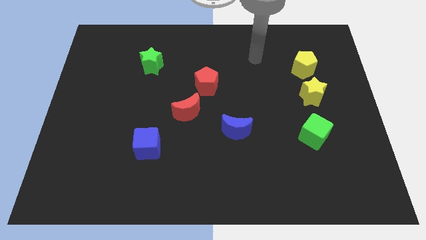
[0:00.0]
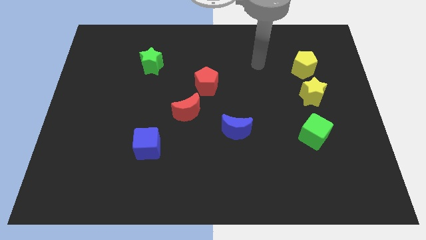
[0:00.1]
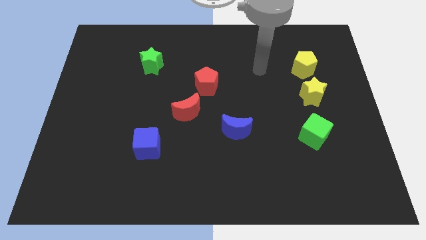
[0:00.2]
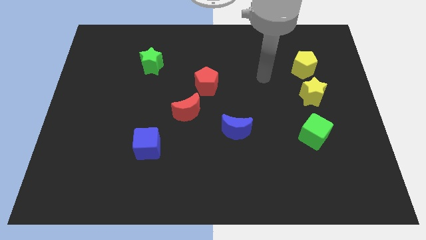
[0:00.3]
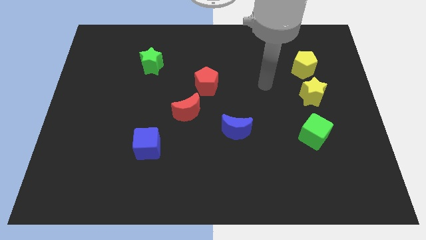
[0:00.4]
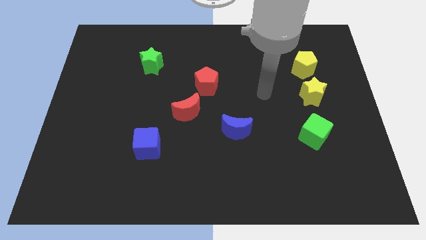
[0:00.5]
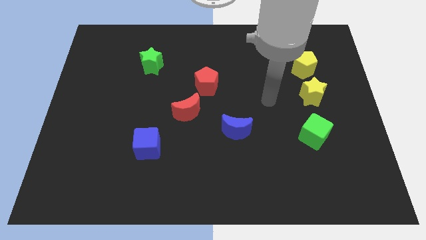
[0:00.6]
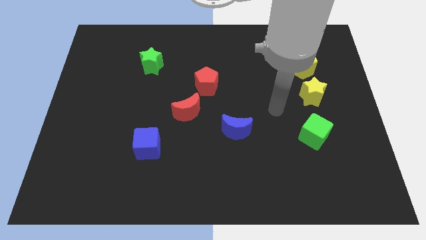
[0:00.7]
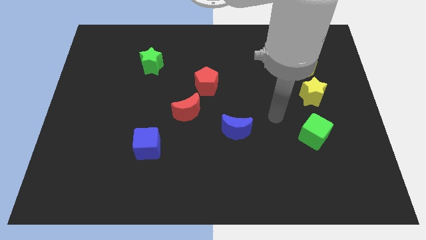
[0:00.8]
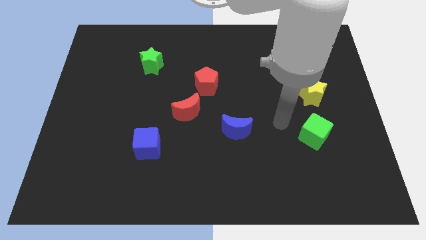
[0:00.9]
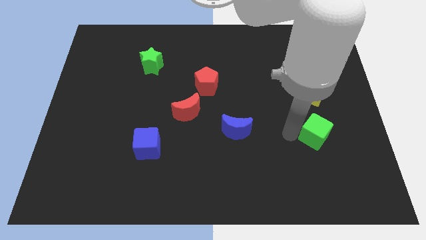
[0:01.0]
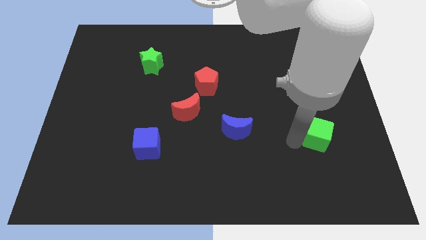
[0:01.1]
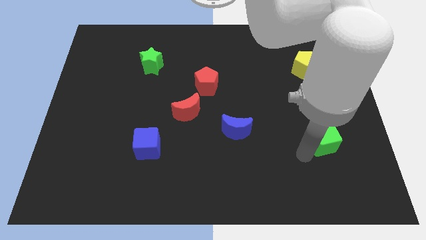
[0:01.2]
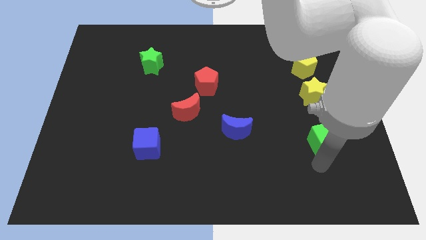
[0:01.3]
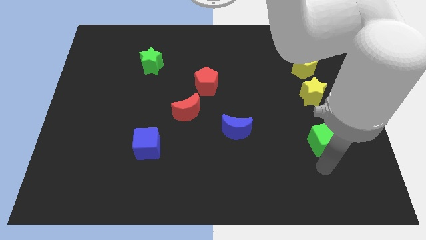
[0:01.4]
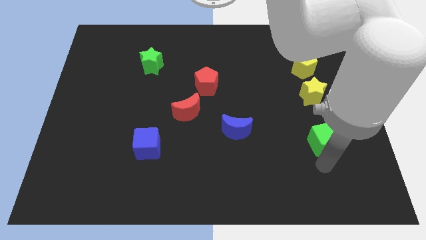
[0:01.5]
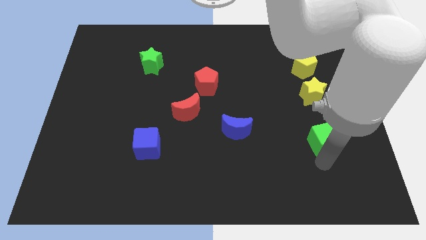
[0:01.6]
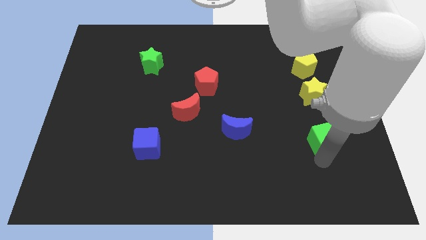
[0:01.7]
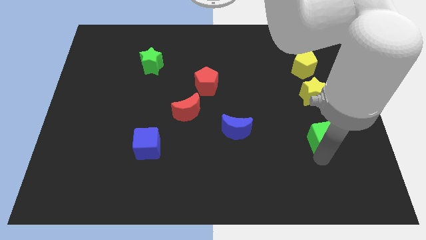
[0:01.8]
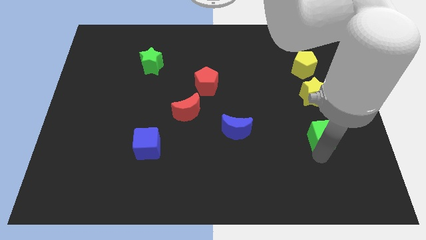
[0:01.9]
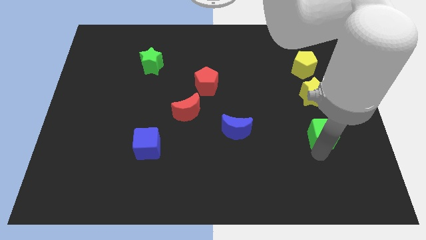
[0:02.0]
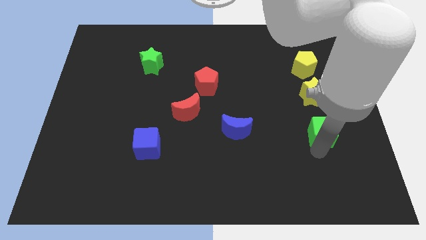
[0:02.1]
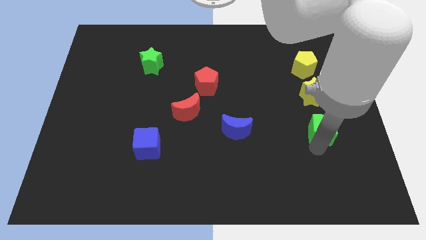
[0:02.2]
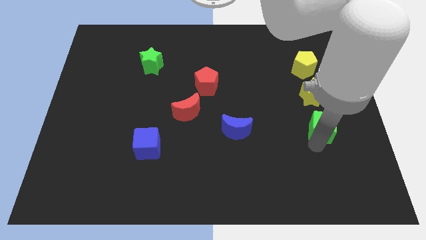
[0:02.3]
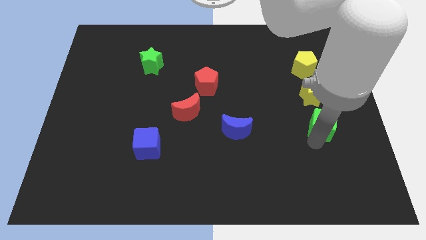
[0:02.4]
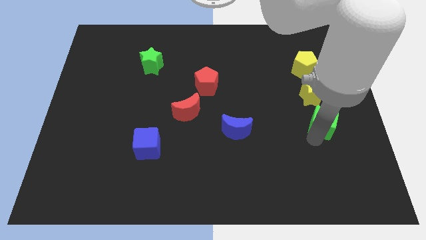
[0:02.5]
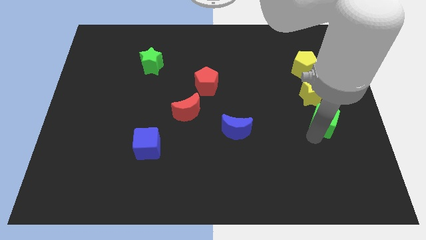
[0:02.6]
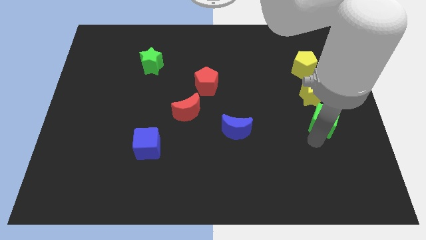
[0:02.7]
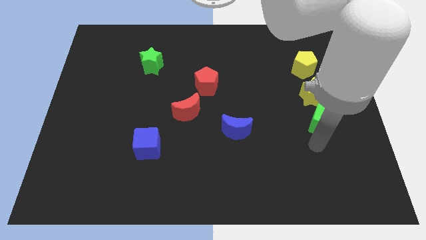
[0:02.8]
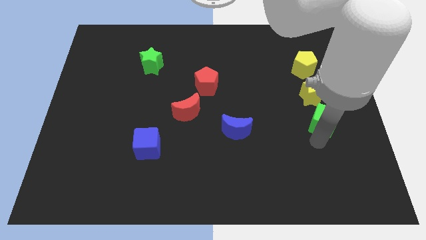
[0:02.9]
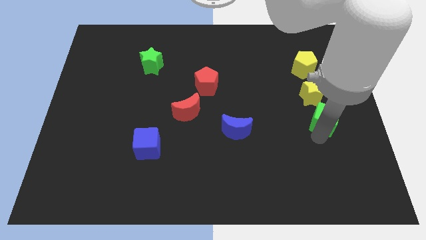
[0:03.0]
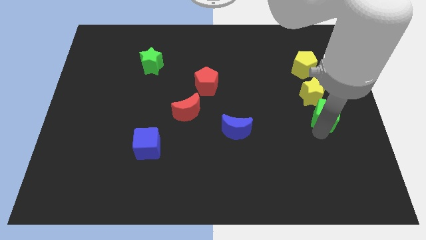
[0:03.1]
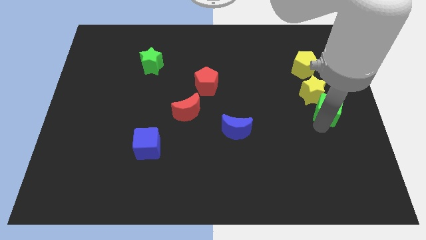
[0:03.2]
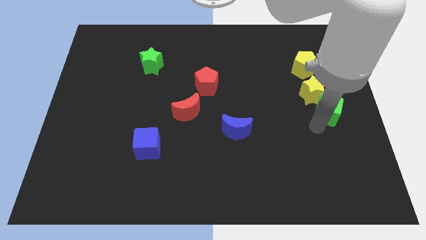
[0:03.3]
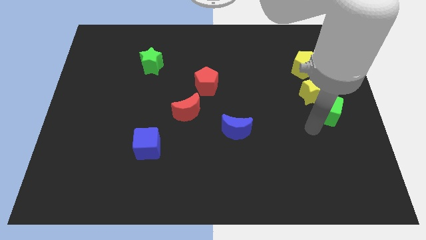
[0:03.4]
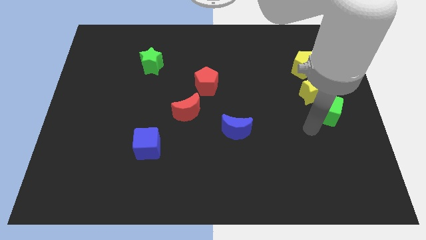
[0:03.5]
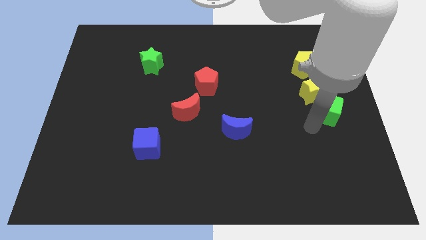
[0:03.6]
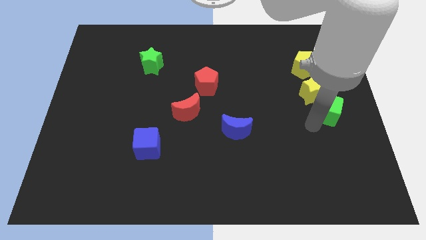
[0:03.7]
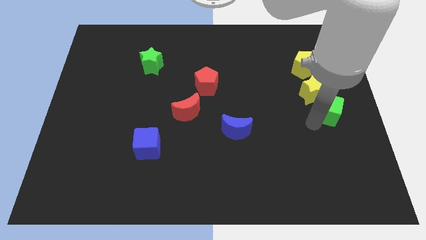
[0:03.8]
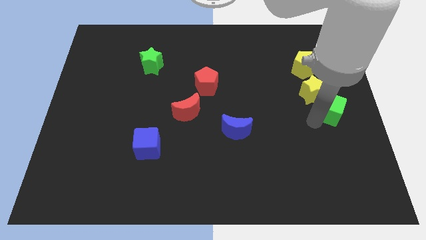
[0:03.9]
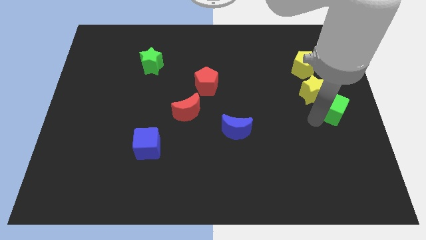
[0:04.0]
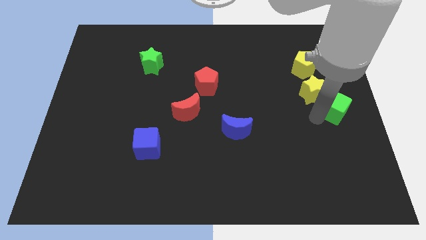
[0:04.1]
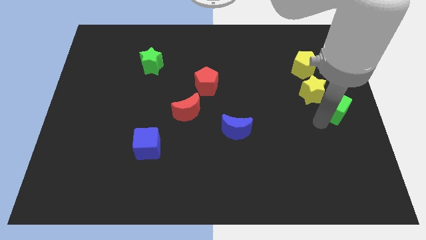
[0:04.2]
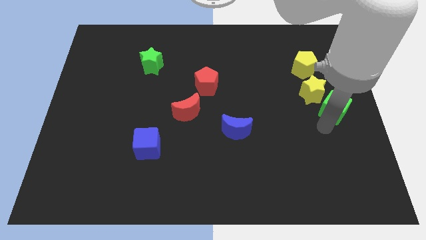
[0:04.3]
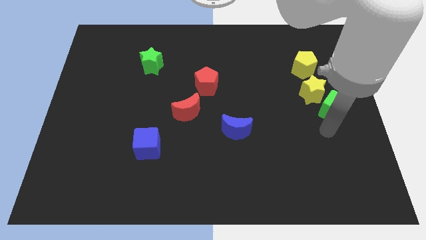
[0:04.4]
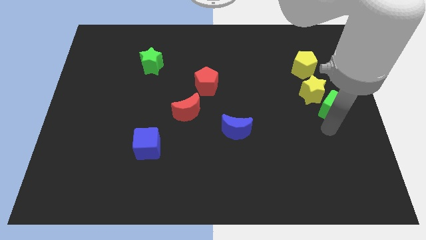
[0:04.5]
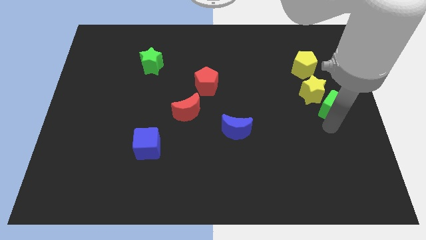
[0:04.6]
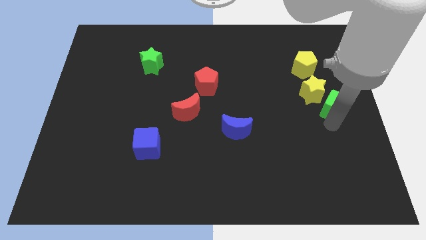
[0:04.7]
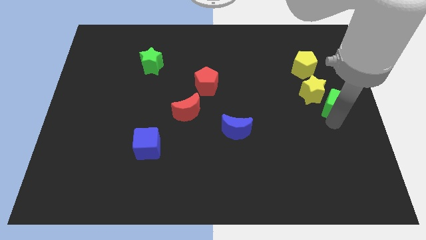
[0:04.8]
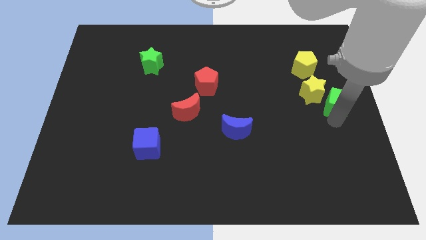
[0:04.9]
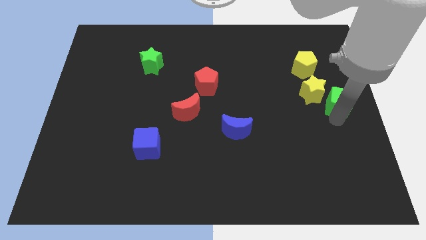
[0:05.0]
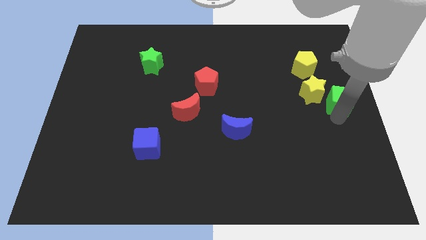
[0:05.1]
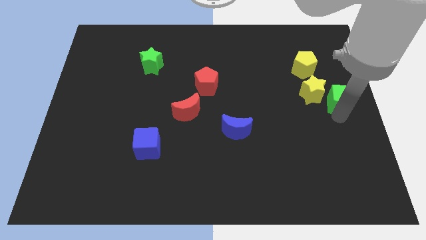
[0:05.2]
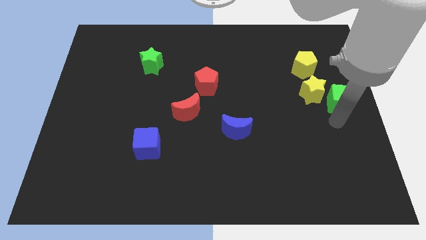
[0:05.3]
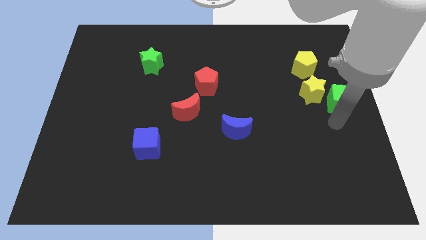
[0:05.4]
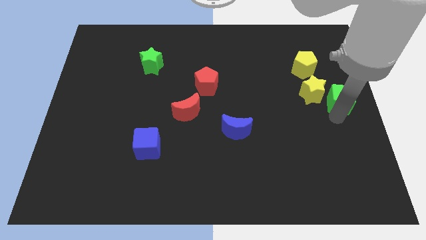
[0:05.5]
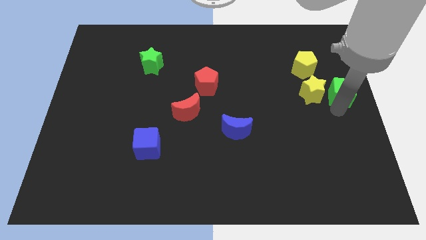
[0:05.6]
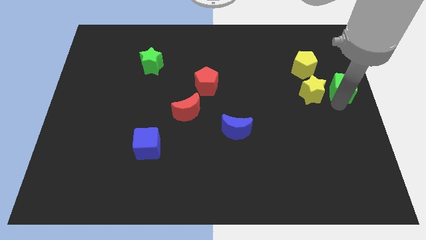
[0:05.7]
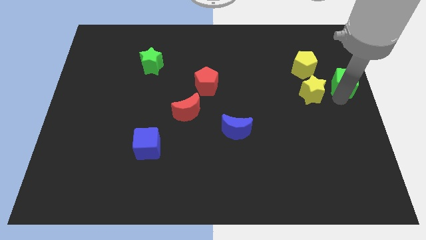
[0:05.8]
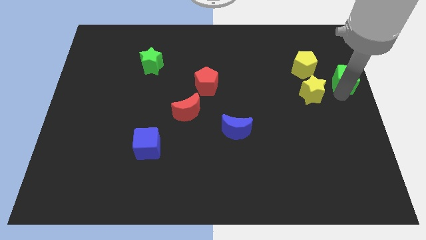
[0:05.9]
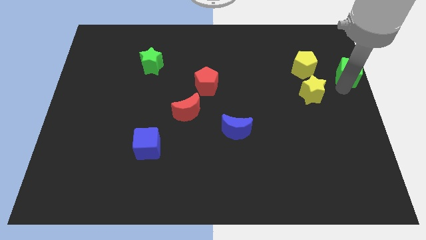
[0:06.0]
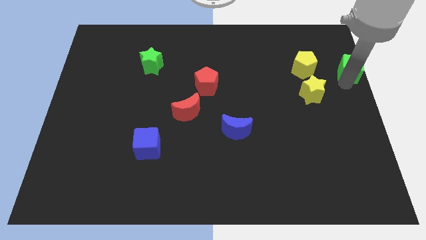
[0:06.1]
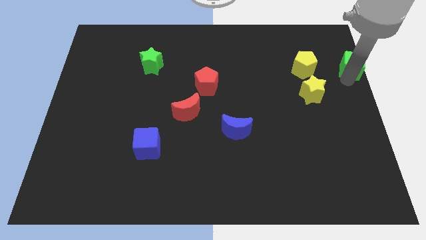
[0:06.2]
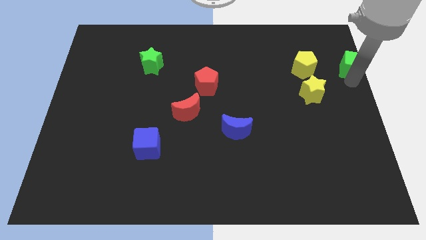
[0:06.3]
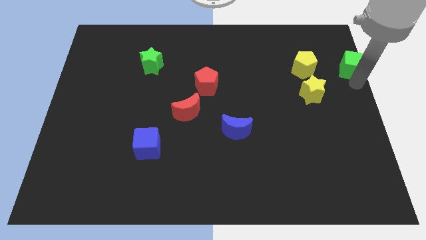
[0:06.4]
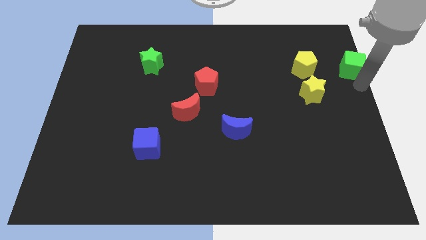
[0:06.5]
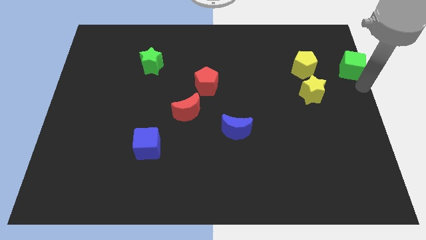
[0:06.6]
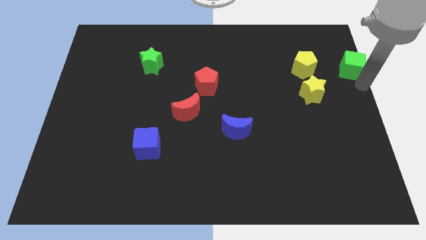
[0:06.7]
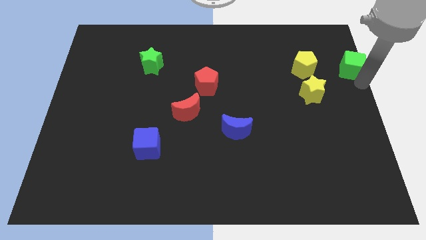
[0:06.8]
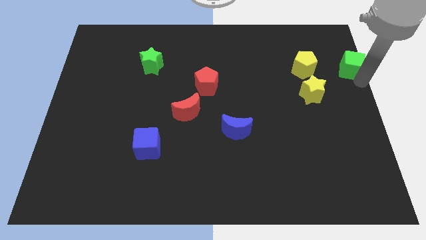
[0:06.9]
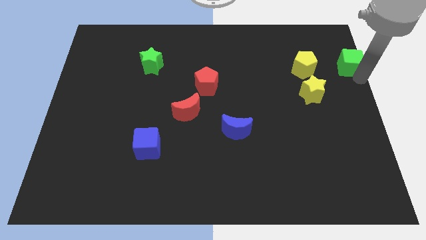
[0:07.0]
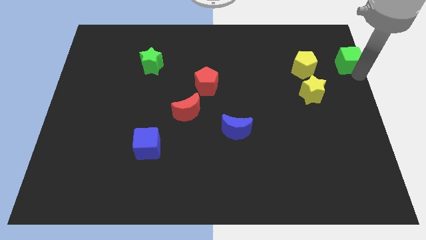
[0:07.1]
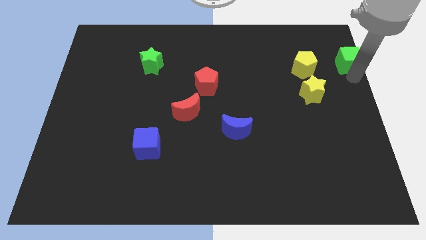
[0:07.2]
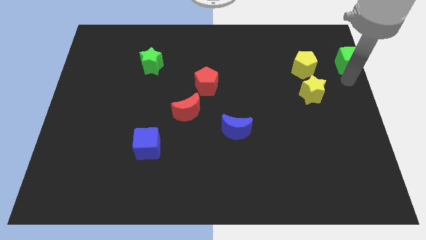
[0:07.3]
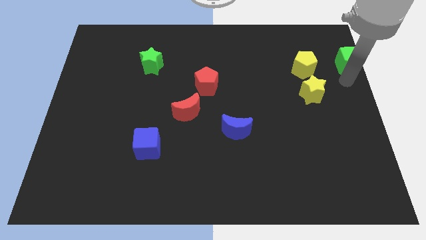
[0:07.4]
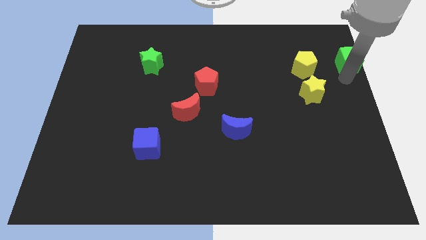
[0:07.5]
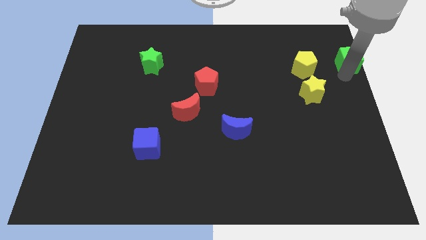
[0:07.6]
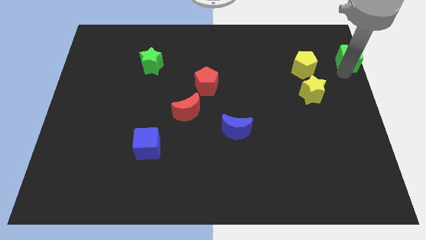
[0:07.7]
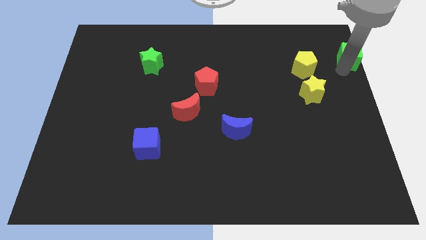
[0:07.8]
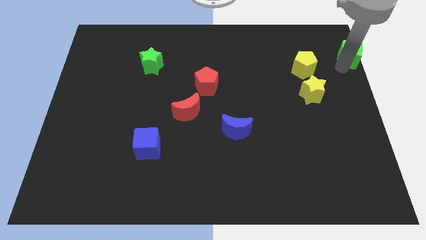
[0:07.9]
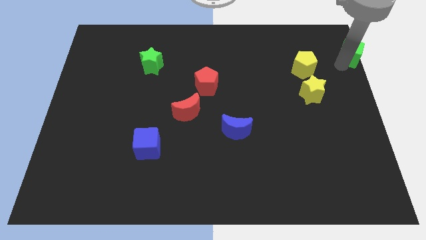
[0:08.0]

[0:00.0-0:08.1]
push the green cube to the top right of the board
